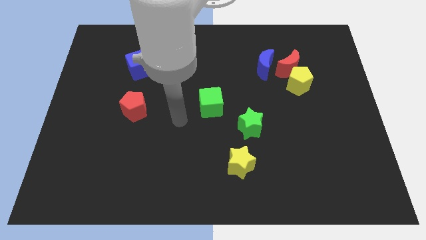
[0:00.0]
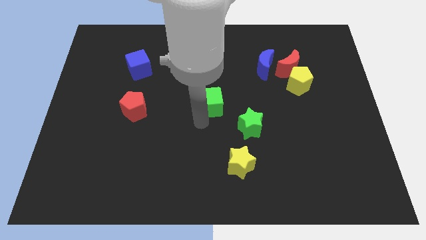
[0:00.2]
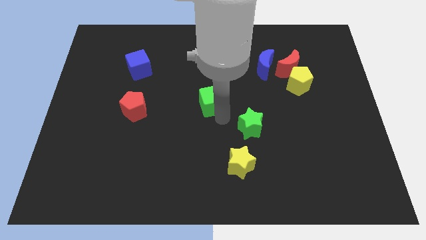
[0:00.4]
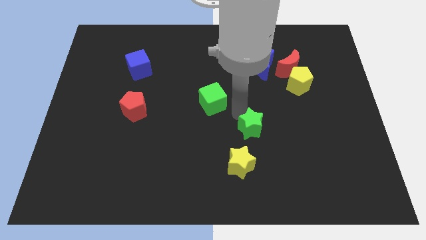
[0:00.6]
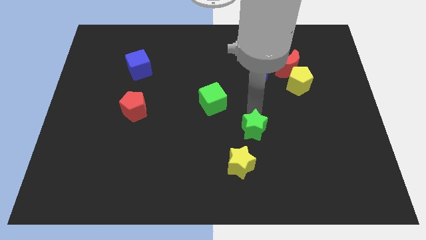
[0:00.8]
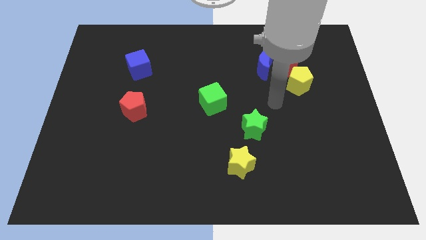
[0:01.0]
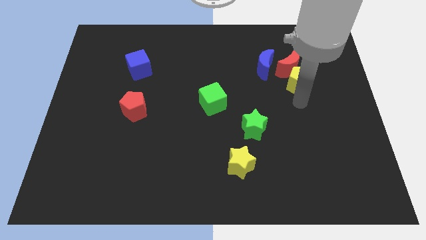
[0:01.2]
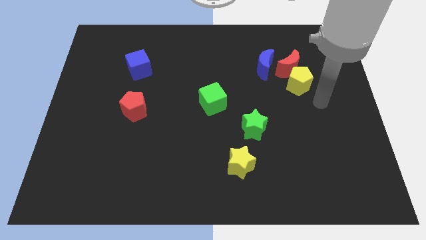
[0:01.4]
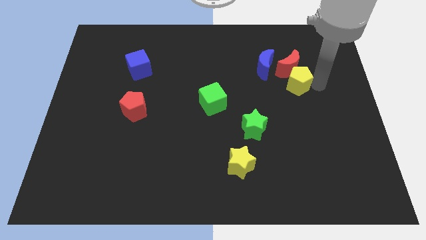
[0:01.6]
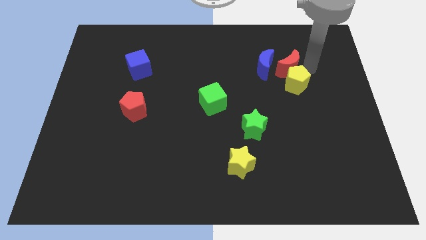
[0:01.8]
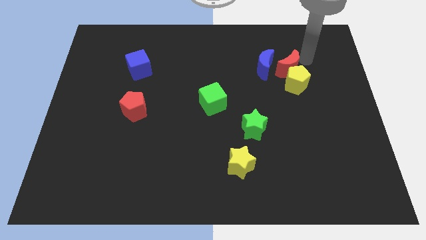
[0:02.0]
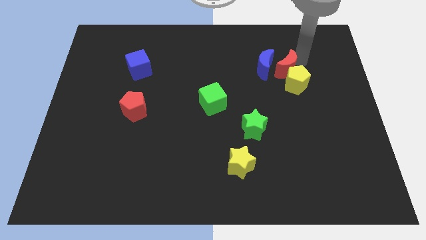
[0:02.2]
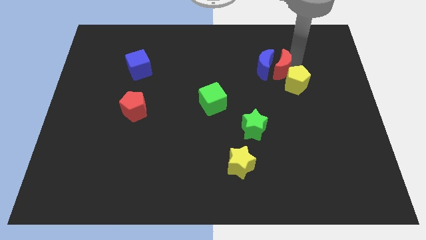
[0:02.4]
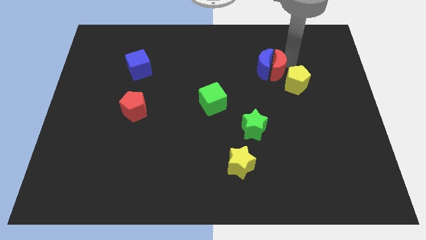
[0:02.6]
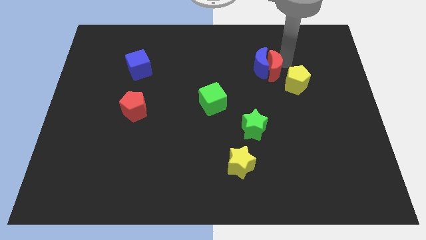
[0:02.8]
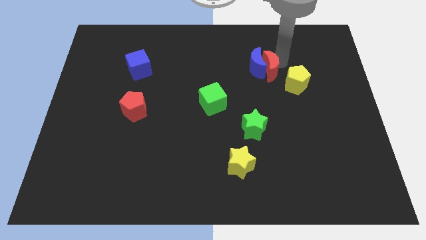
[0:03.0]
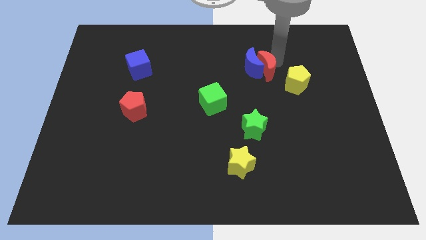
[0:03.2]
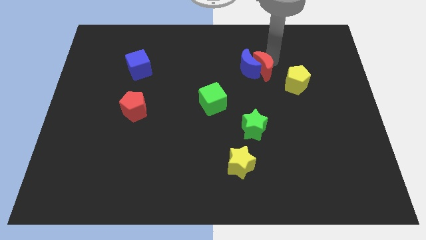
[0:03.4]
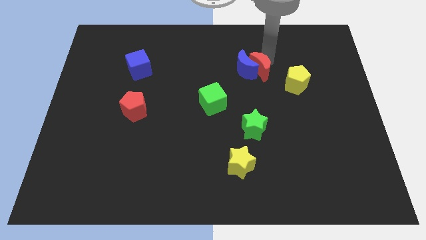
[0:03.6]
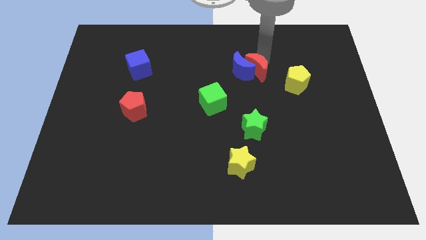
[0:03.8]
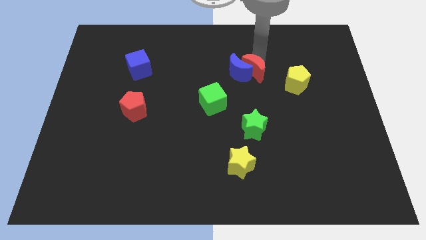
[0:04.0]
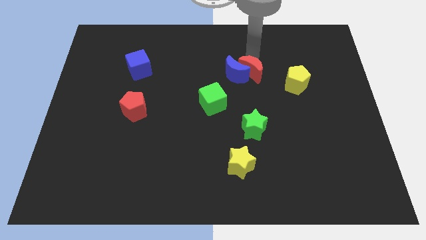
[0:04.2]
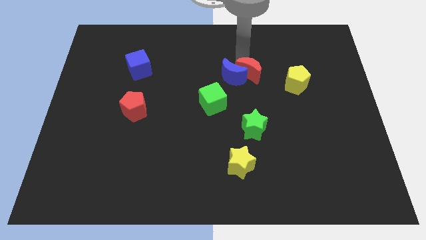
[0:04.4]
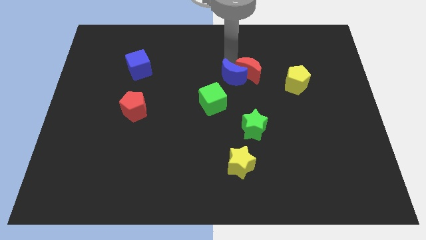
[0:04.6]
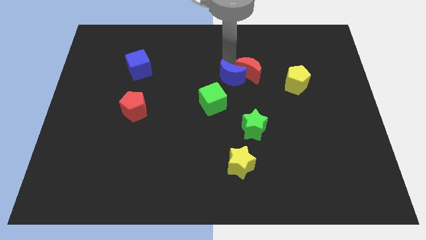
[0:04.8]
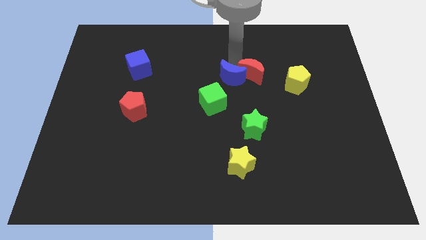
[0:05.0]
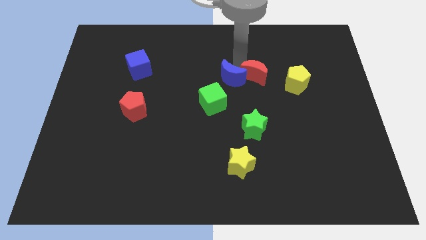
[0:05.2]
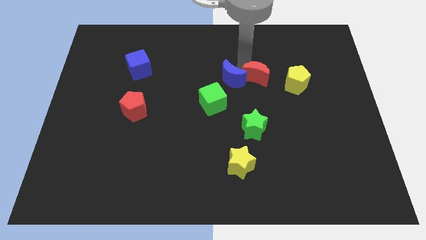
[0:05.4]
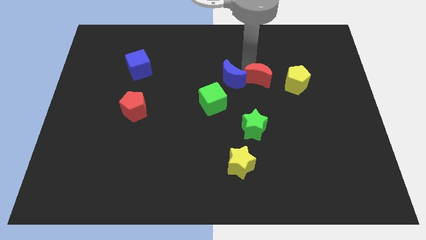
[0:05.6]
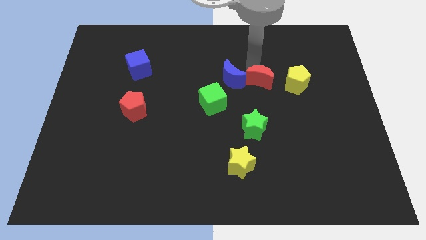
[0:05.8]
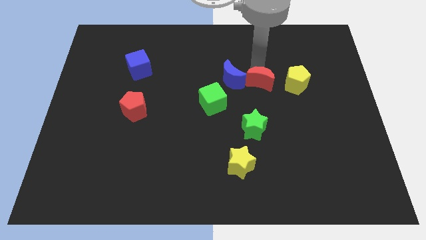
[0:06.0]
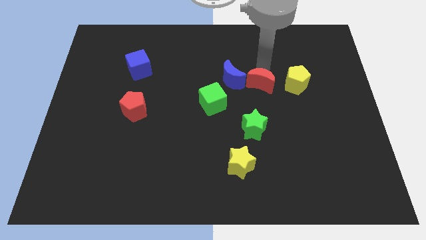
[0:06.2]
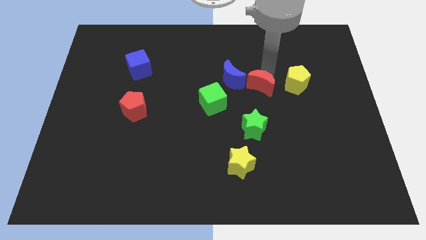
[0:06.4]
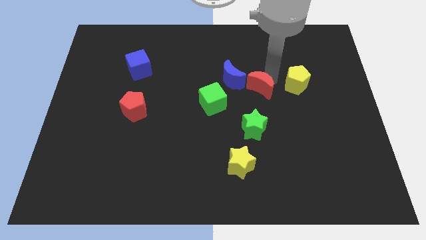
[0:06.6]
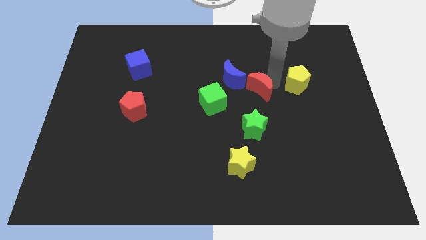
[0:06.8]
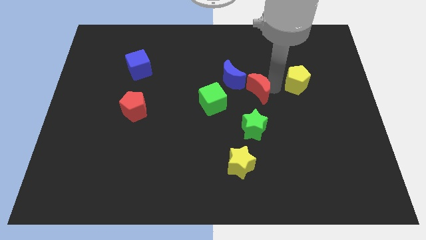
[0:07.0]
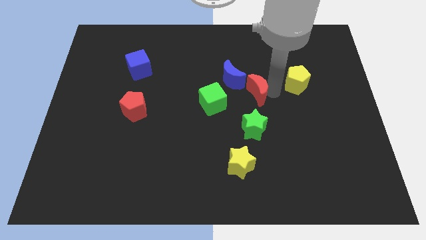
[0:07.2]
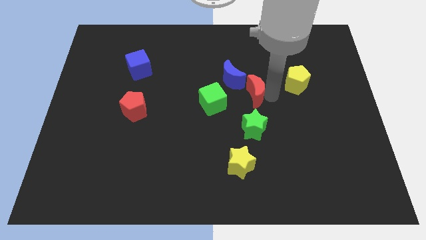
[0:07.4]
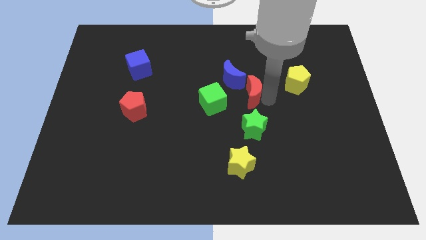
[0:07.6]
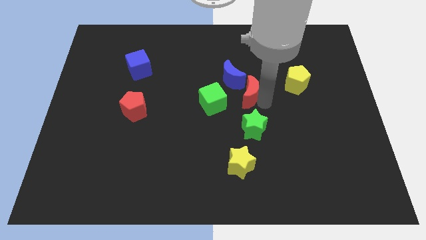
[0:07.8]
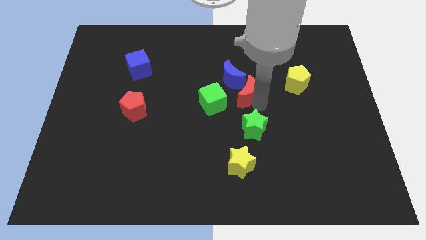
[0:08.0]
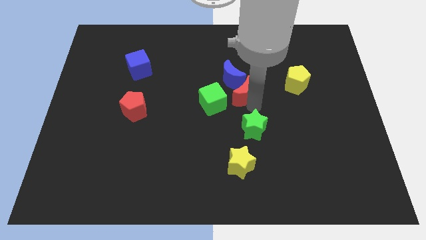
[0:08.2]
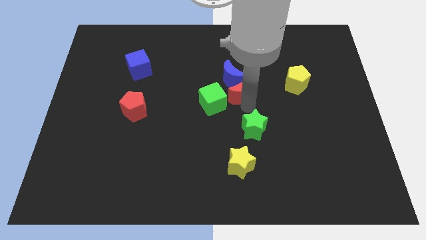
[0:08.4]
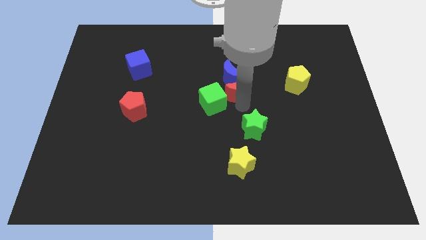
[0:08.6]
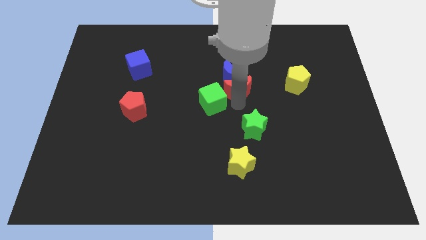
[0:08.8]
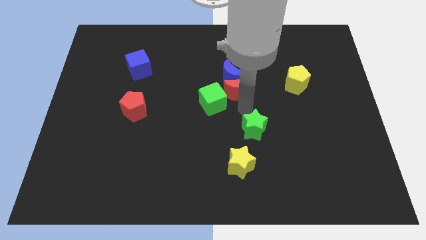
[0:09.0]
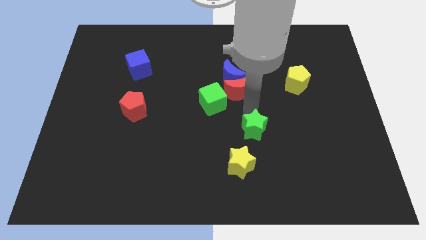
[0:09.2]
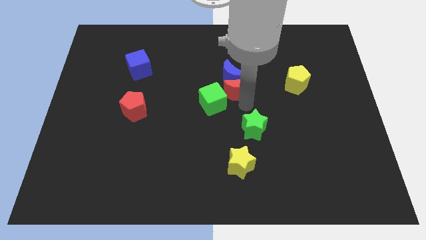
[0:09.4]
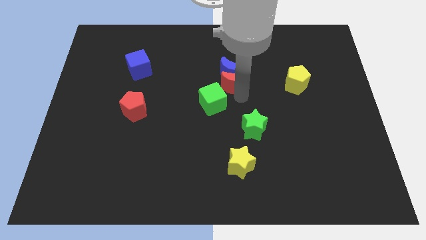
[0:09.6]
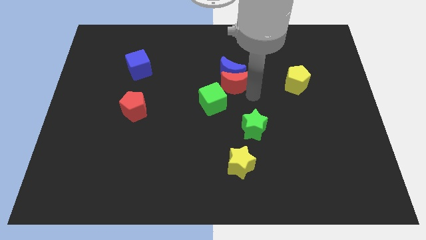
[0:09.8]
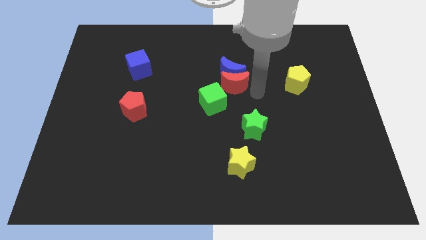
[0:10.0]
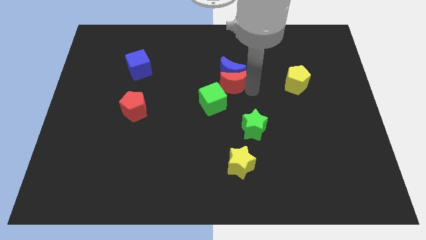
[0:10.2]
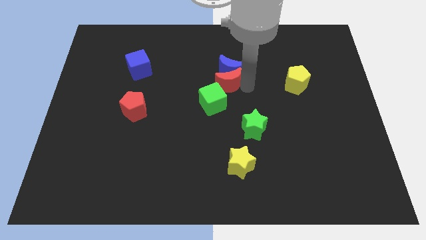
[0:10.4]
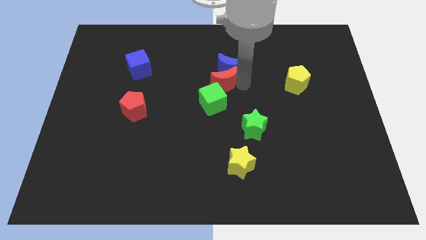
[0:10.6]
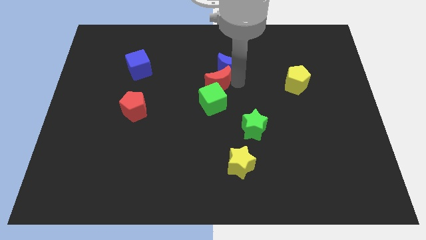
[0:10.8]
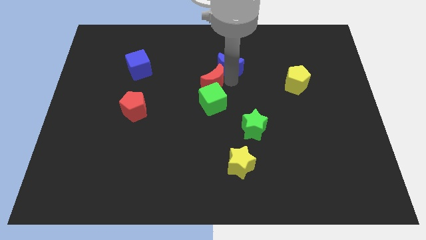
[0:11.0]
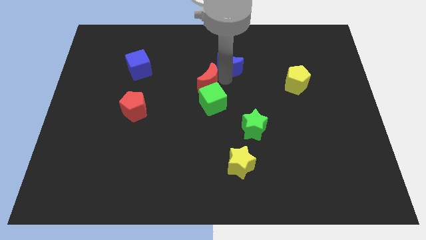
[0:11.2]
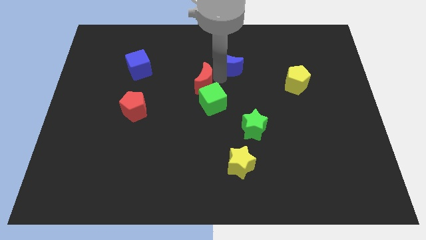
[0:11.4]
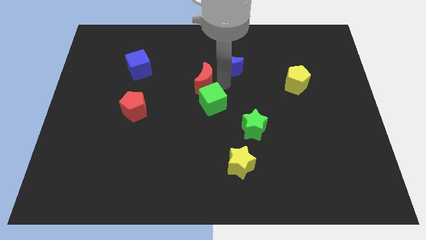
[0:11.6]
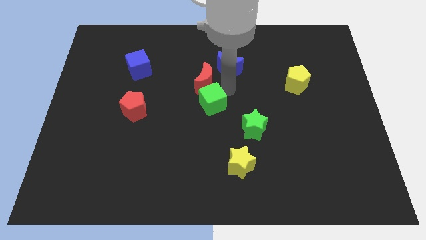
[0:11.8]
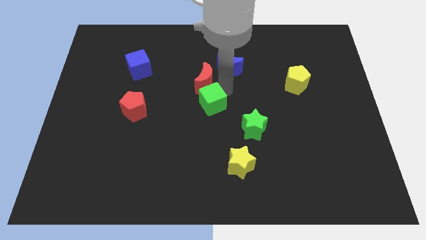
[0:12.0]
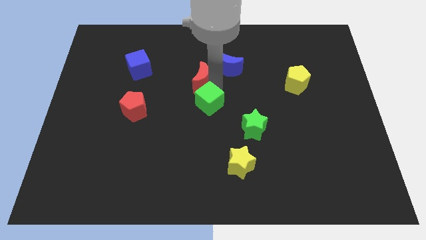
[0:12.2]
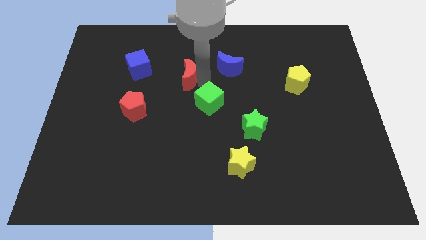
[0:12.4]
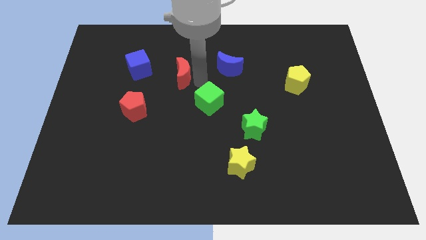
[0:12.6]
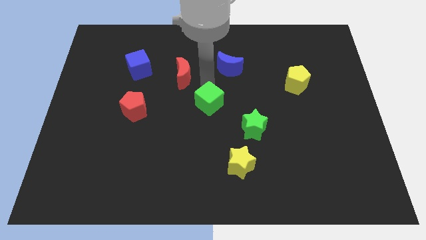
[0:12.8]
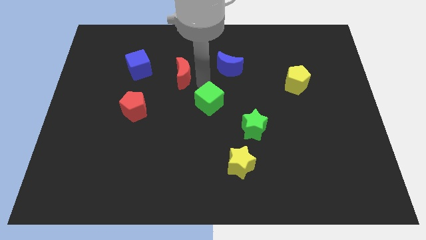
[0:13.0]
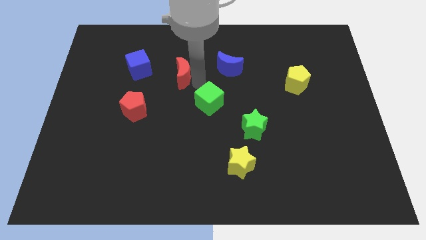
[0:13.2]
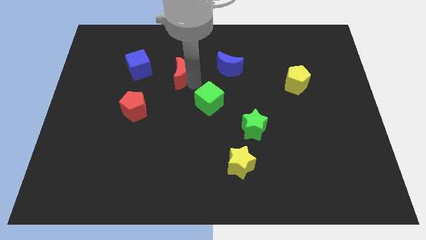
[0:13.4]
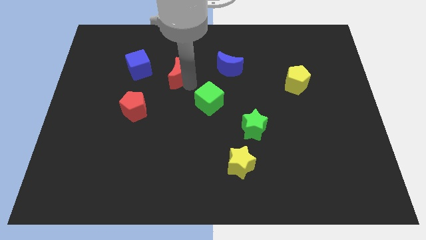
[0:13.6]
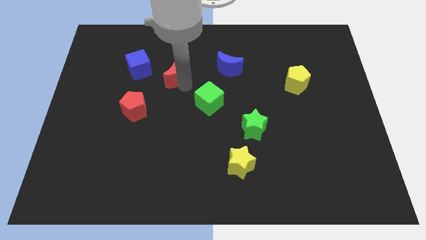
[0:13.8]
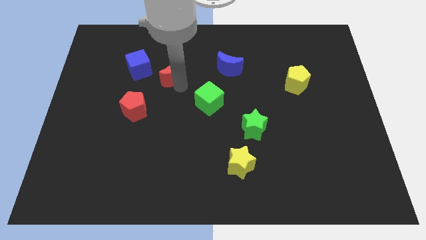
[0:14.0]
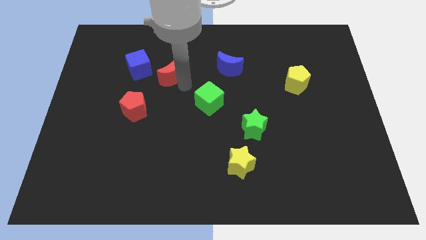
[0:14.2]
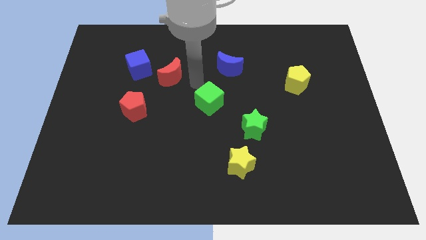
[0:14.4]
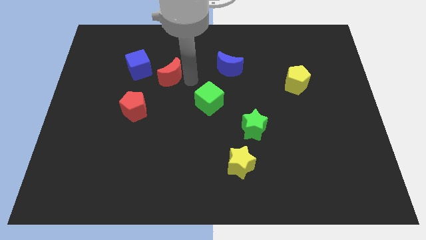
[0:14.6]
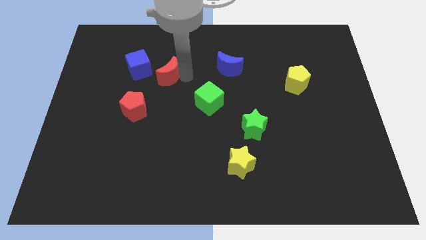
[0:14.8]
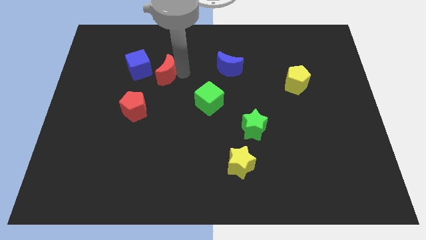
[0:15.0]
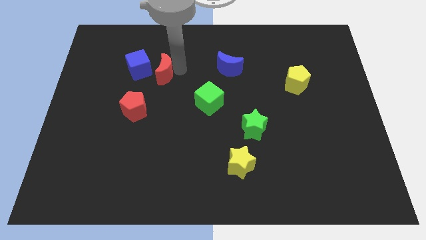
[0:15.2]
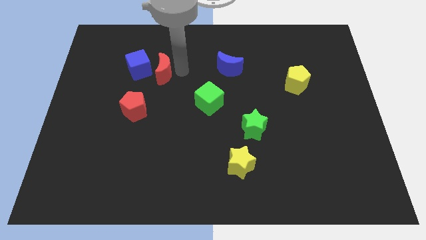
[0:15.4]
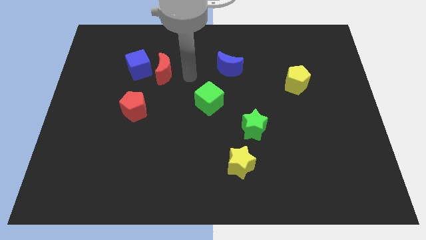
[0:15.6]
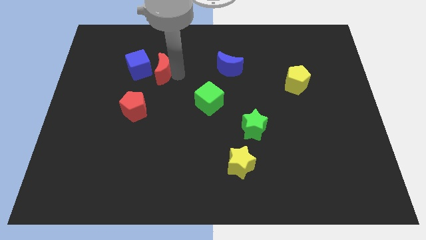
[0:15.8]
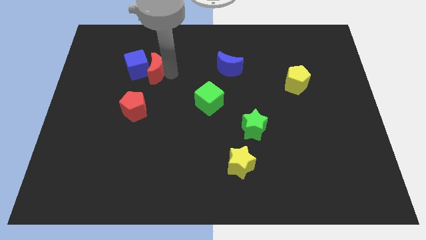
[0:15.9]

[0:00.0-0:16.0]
move the red moon close to the blue cube
